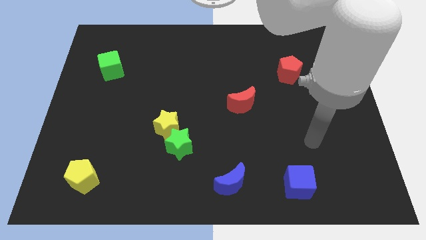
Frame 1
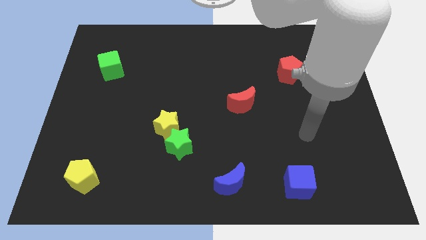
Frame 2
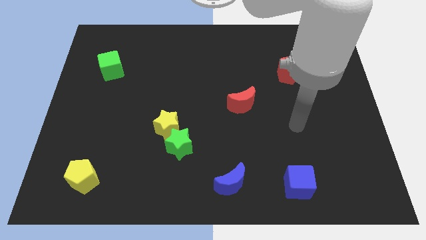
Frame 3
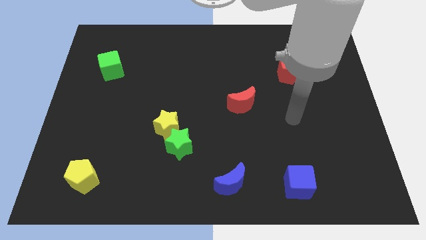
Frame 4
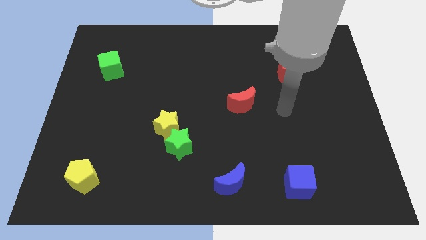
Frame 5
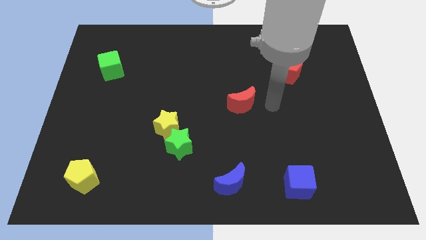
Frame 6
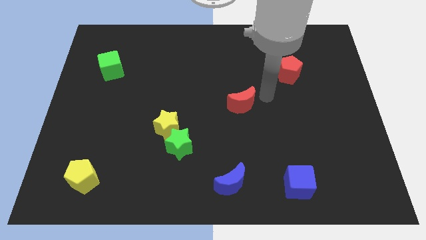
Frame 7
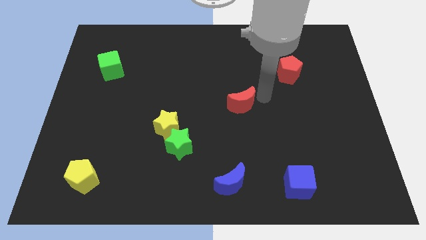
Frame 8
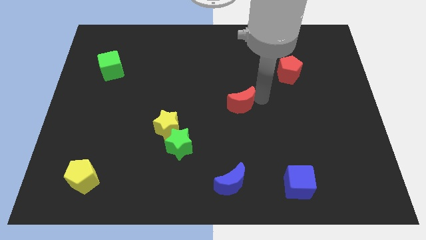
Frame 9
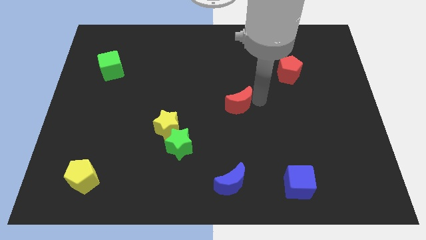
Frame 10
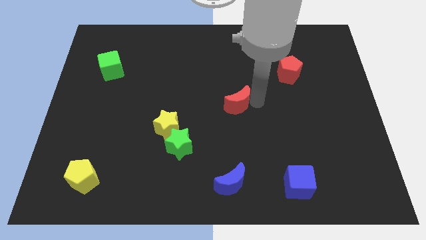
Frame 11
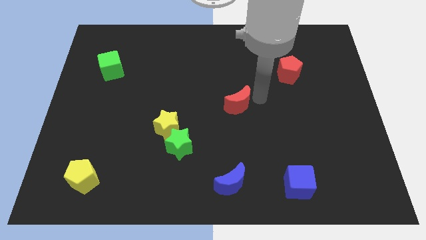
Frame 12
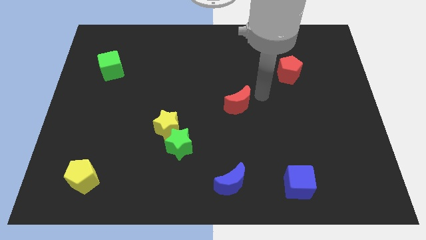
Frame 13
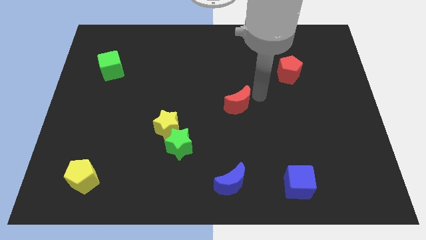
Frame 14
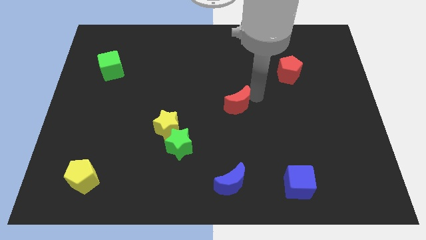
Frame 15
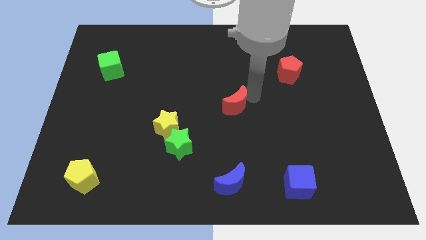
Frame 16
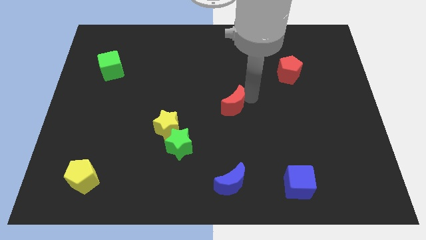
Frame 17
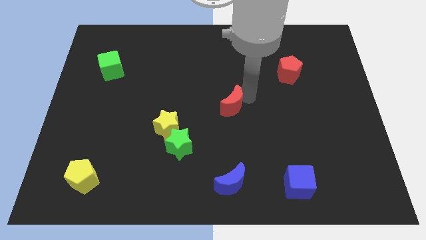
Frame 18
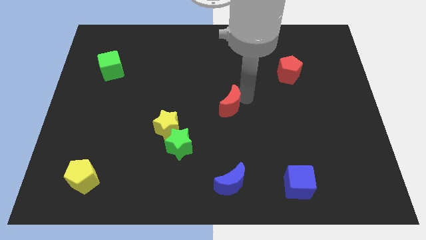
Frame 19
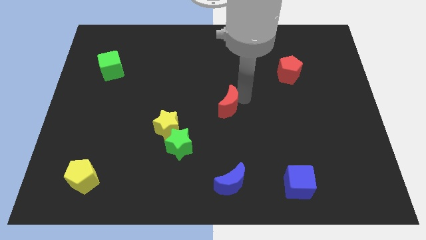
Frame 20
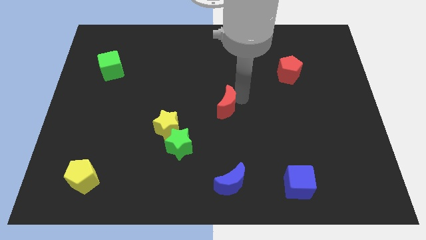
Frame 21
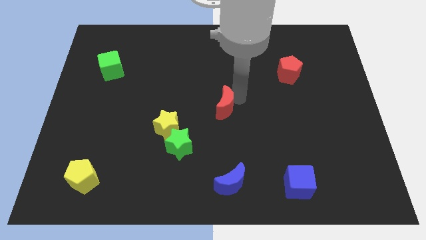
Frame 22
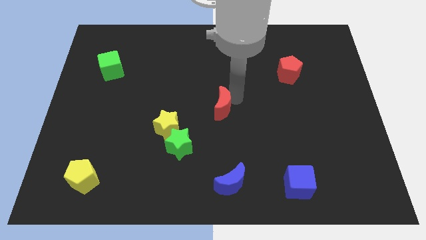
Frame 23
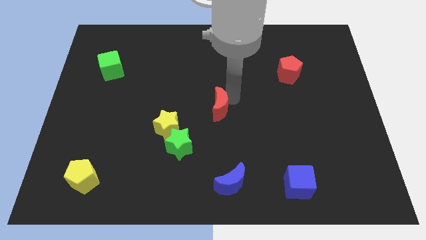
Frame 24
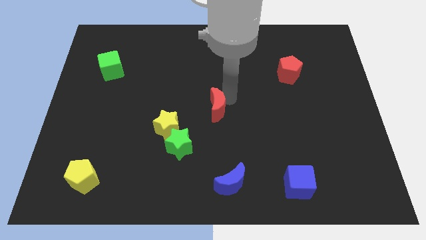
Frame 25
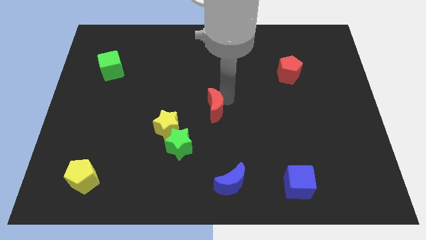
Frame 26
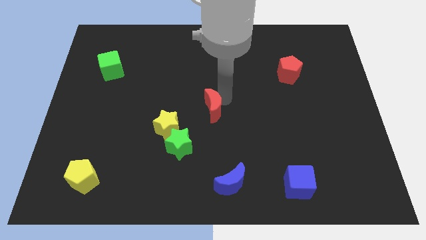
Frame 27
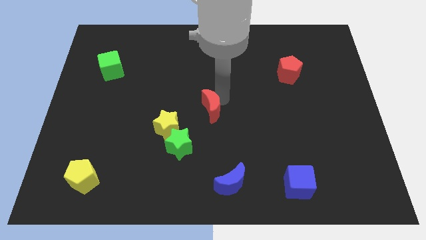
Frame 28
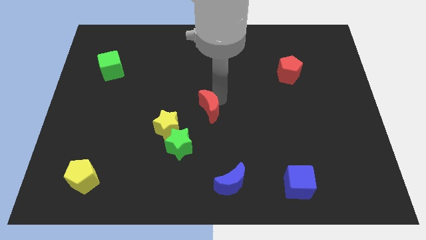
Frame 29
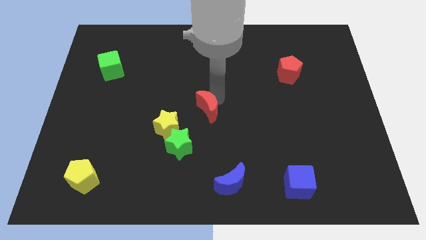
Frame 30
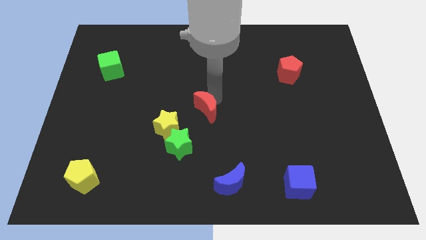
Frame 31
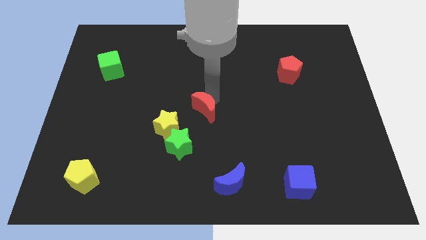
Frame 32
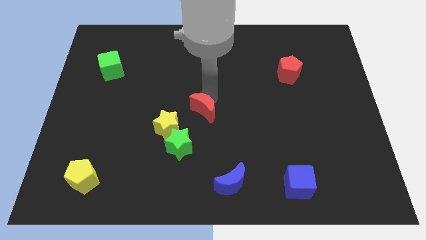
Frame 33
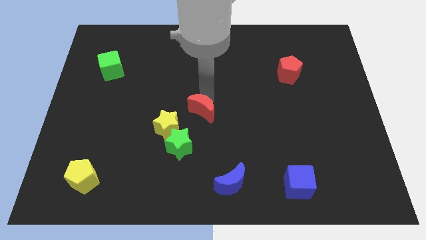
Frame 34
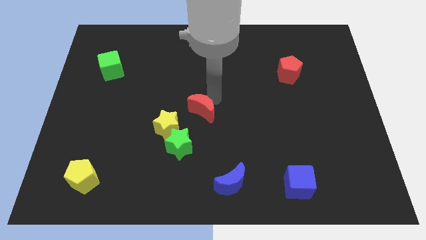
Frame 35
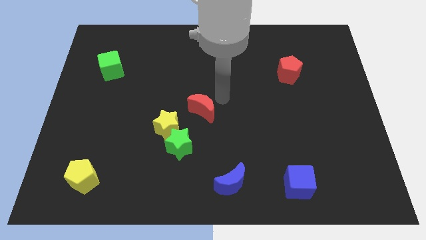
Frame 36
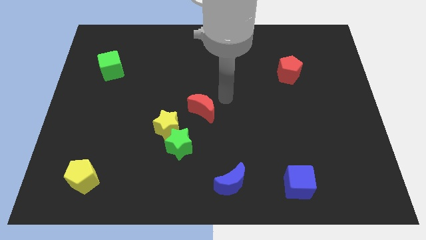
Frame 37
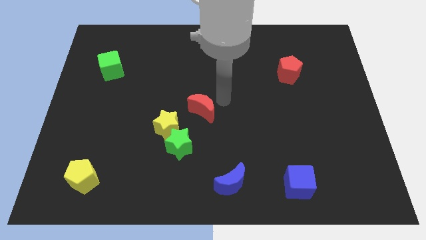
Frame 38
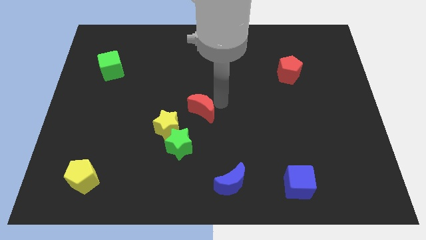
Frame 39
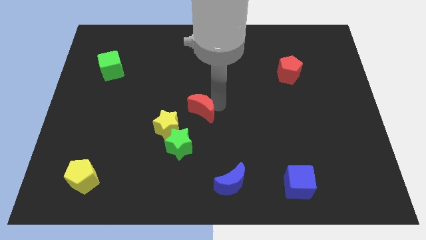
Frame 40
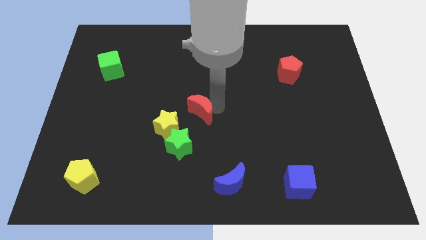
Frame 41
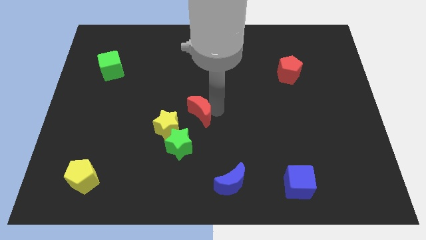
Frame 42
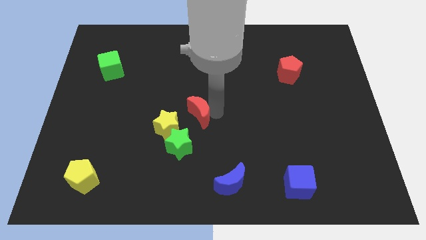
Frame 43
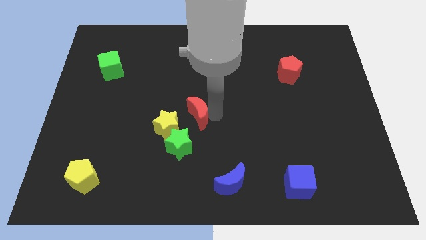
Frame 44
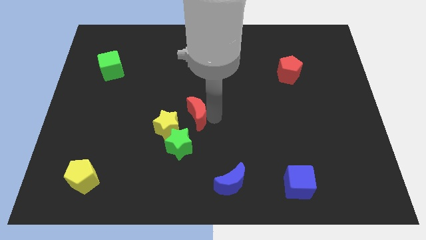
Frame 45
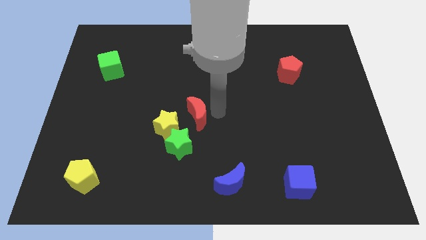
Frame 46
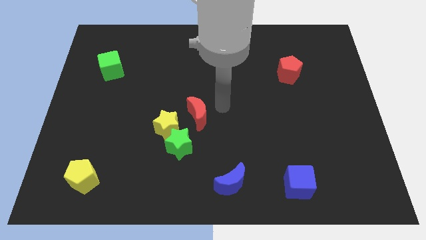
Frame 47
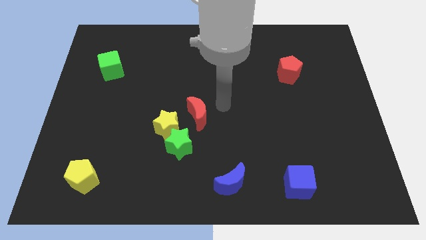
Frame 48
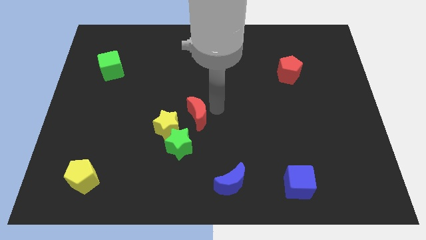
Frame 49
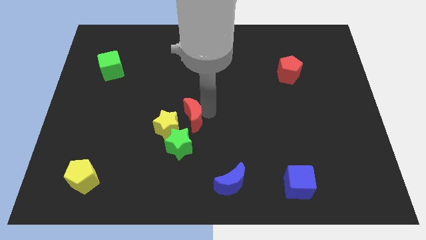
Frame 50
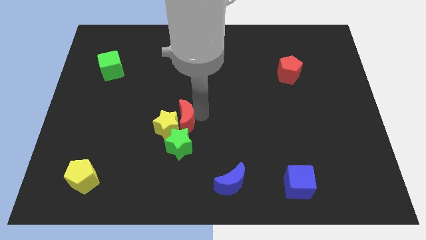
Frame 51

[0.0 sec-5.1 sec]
slide the red moon towards the yellow star

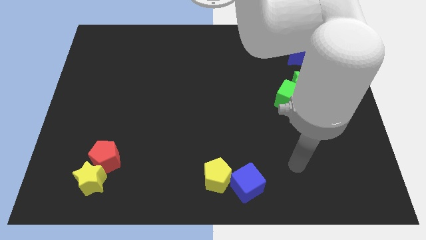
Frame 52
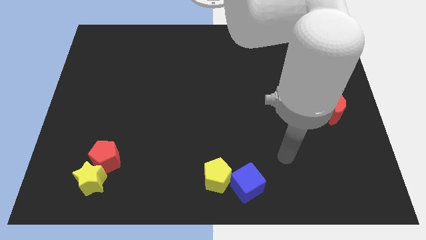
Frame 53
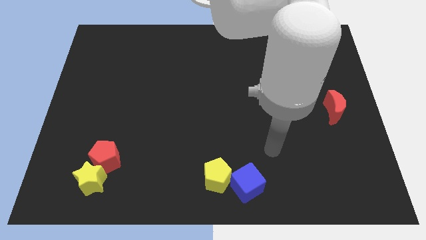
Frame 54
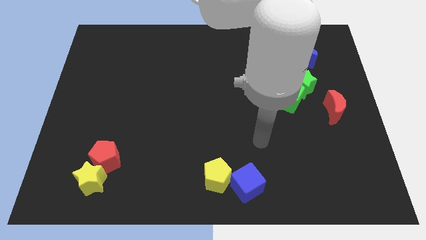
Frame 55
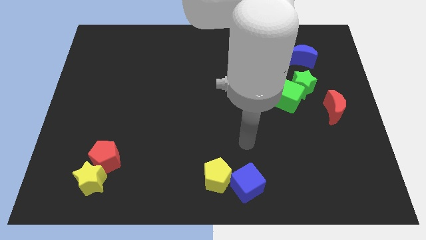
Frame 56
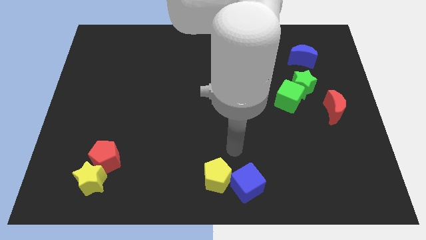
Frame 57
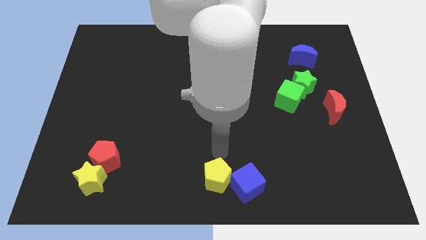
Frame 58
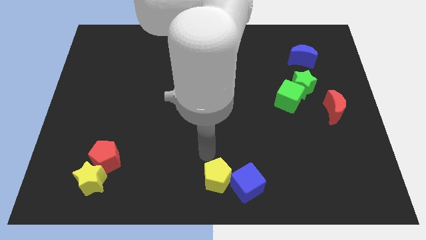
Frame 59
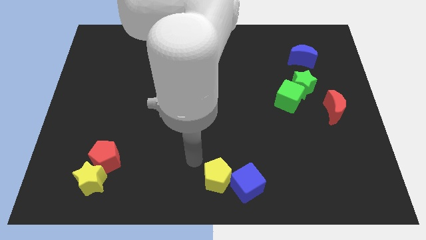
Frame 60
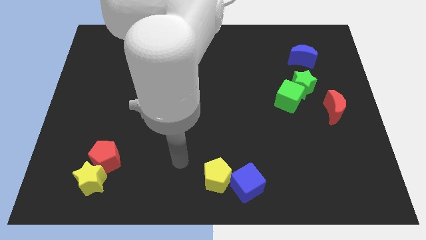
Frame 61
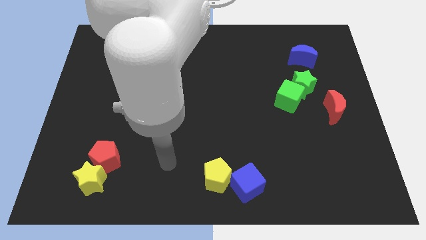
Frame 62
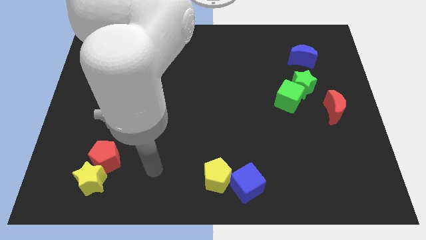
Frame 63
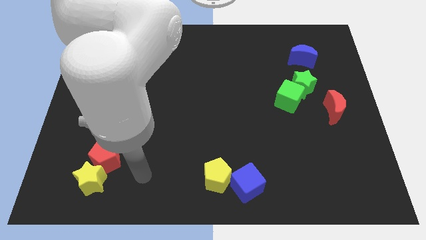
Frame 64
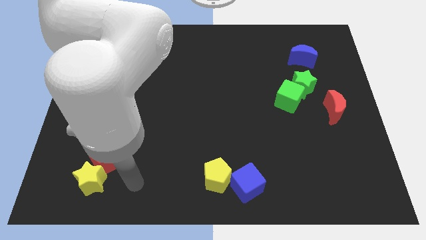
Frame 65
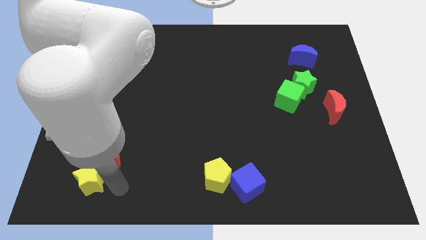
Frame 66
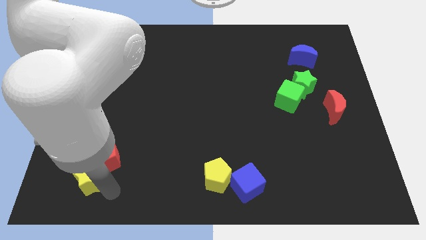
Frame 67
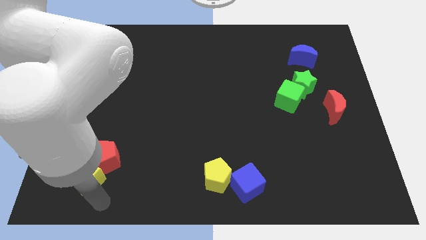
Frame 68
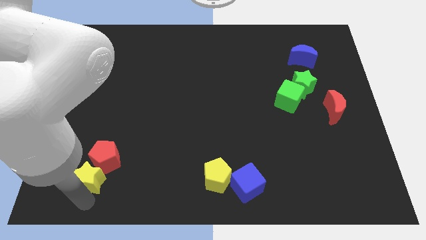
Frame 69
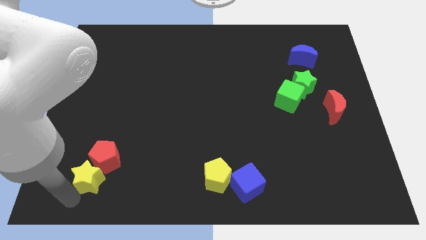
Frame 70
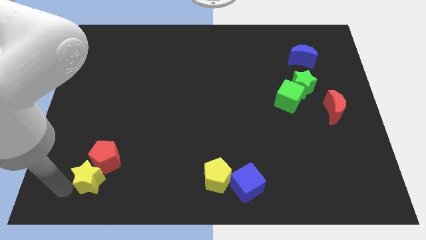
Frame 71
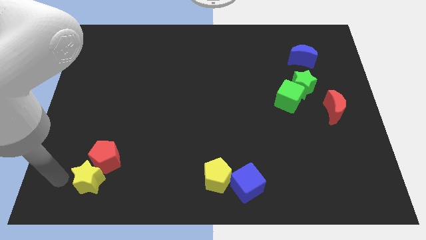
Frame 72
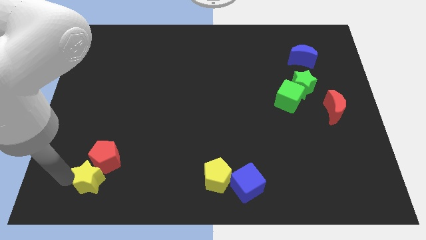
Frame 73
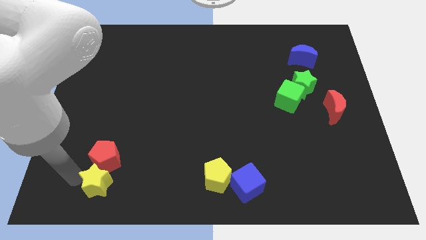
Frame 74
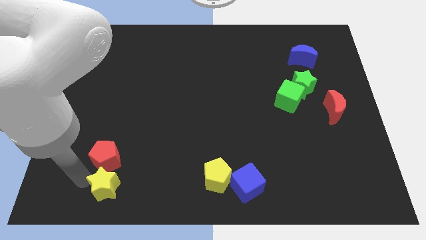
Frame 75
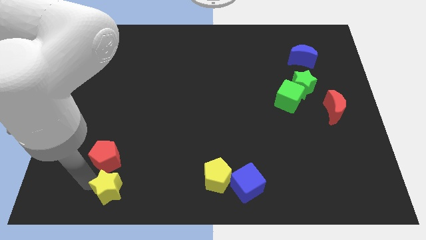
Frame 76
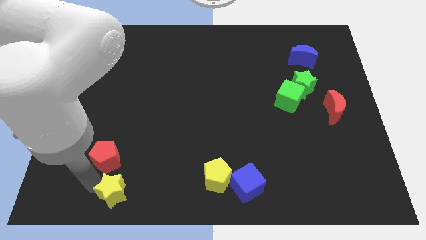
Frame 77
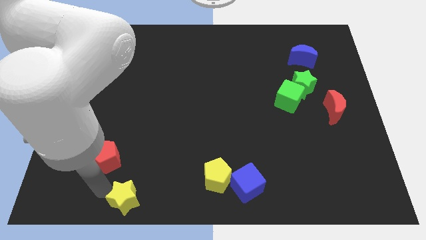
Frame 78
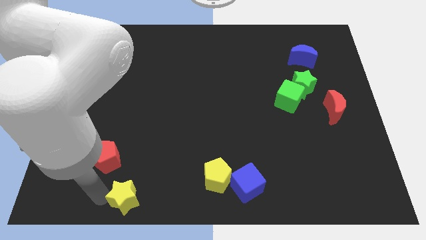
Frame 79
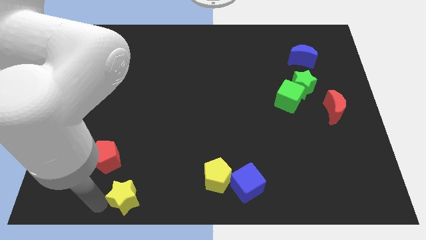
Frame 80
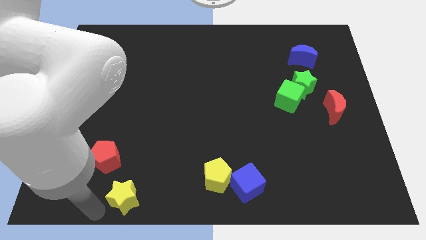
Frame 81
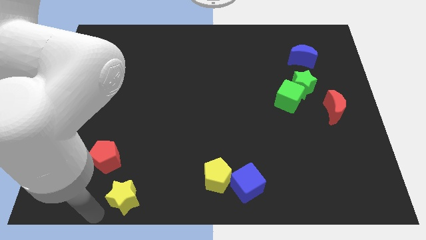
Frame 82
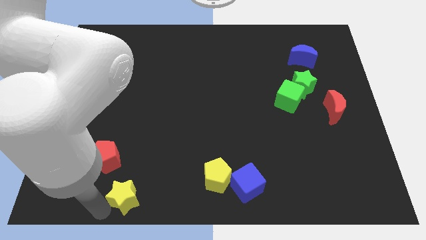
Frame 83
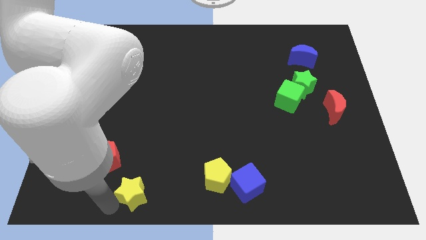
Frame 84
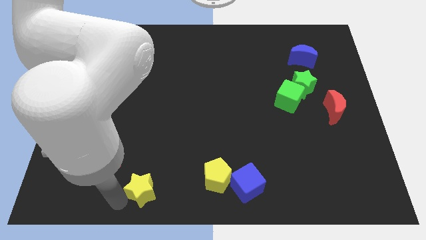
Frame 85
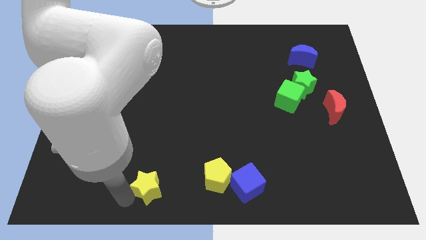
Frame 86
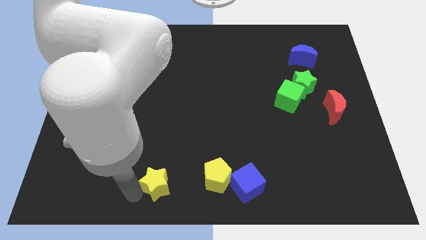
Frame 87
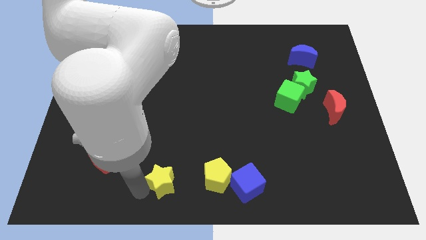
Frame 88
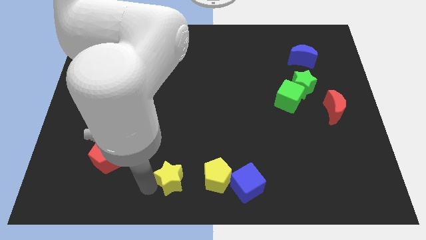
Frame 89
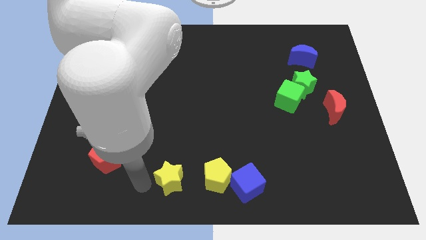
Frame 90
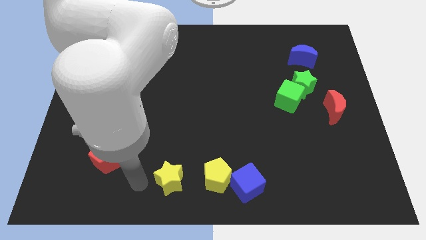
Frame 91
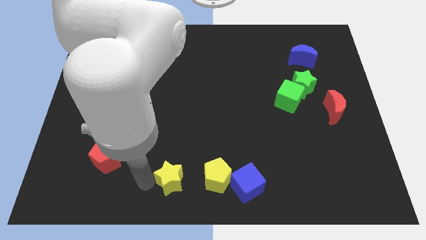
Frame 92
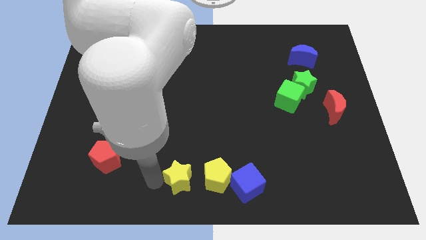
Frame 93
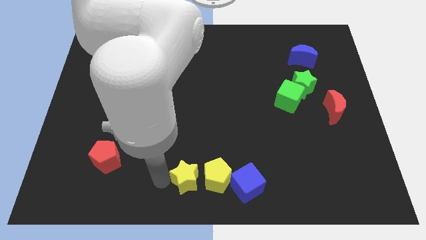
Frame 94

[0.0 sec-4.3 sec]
slide the yellow star towards the yellow pentagon
